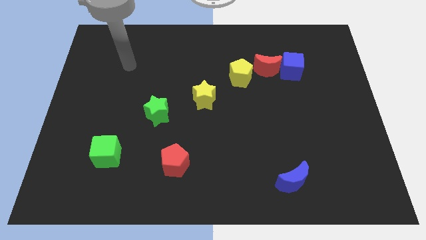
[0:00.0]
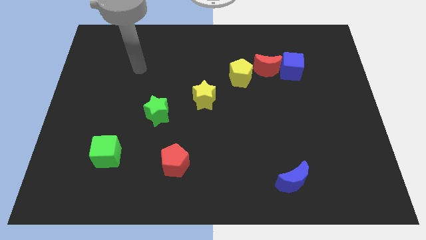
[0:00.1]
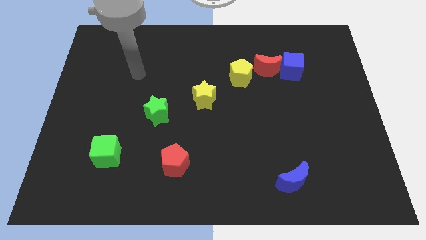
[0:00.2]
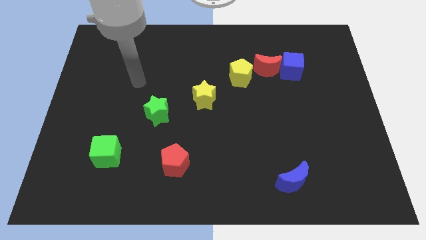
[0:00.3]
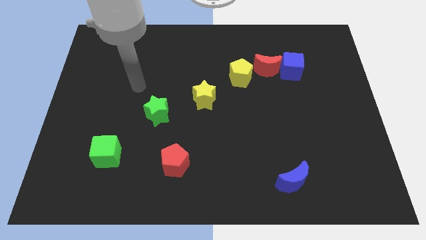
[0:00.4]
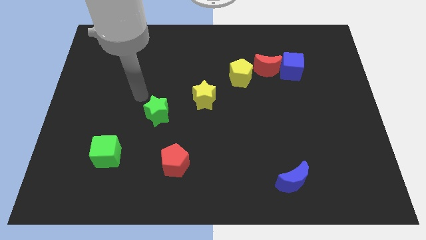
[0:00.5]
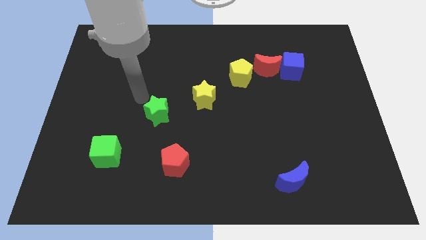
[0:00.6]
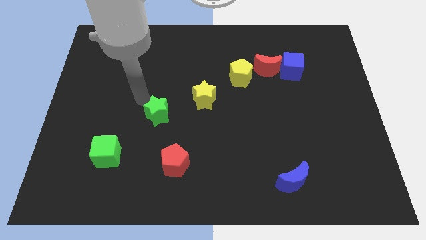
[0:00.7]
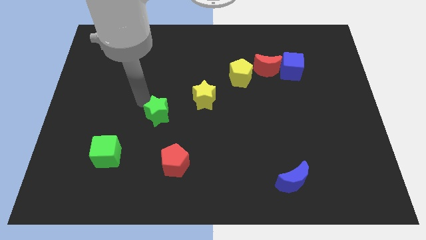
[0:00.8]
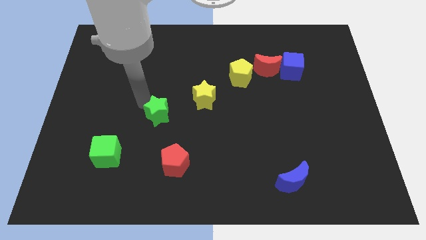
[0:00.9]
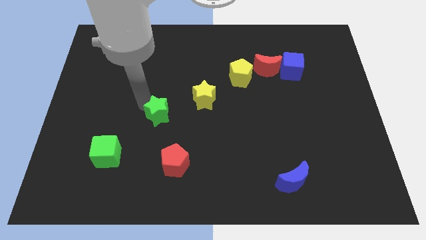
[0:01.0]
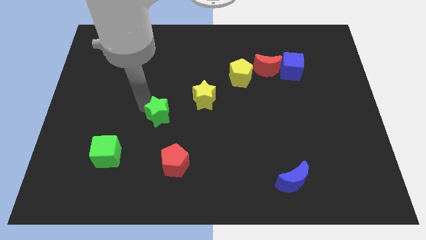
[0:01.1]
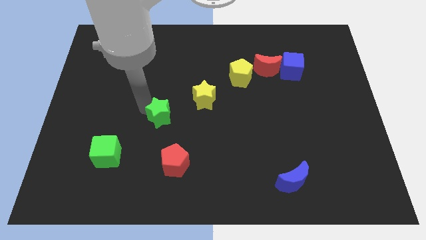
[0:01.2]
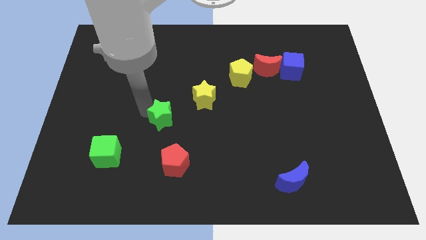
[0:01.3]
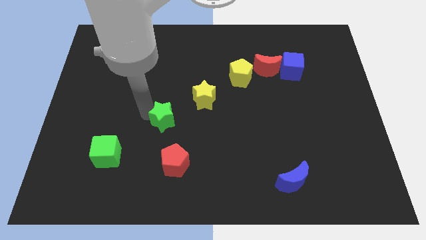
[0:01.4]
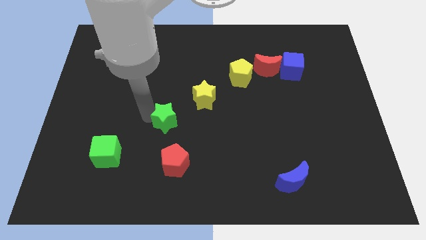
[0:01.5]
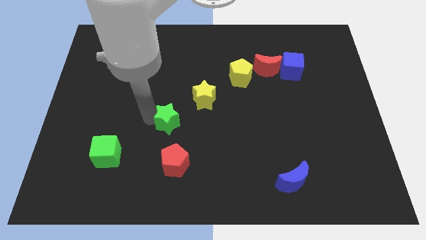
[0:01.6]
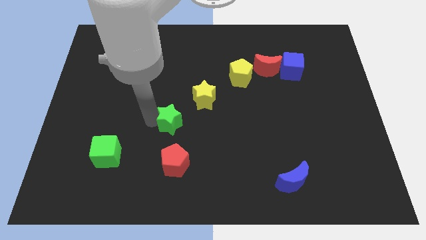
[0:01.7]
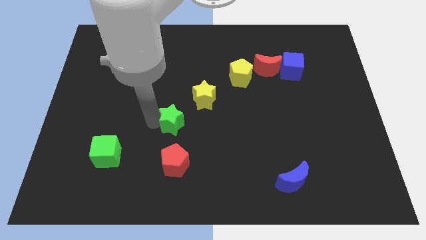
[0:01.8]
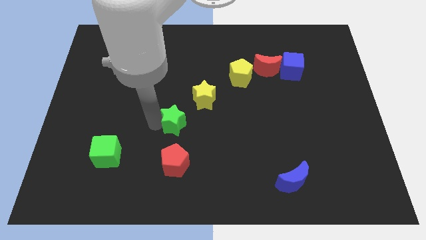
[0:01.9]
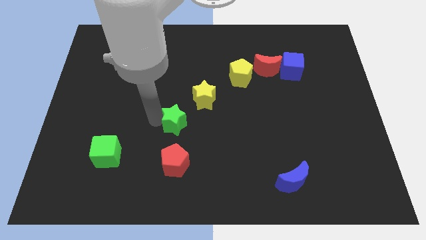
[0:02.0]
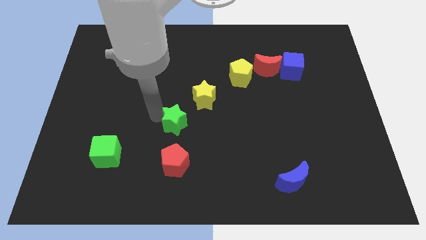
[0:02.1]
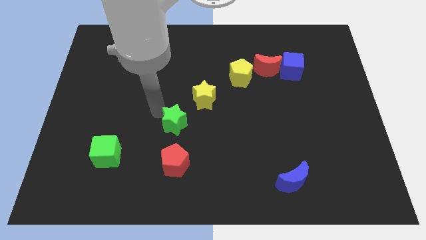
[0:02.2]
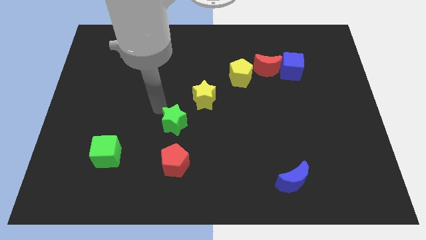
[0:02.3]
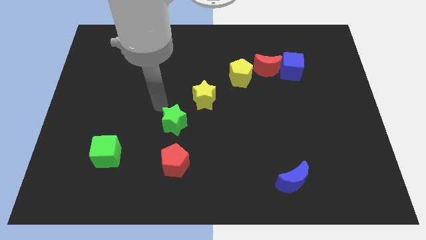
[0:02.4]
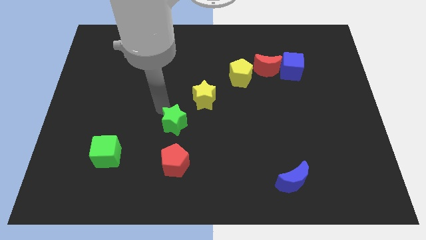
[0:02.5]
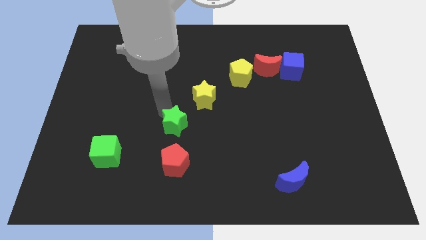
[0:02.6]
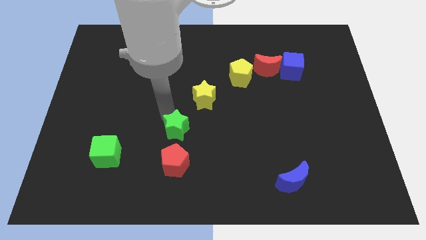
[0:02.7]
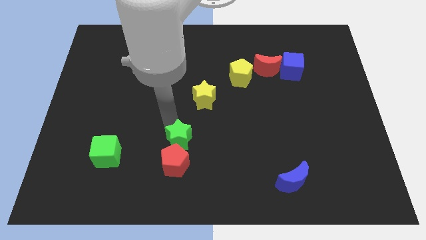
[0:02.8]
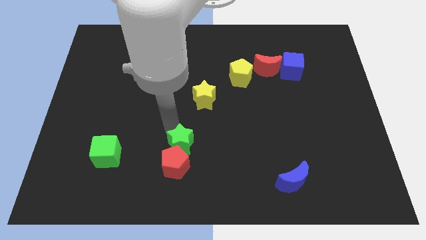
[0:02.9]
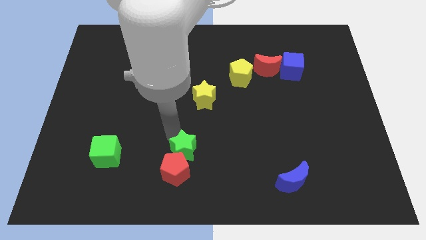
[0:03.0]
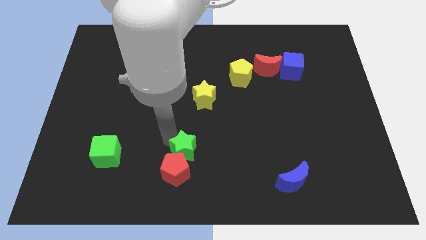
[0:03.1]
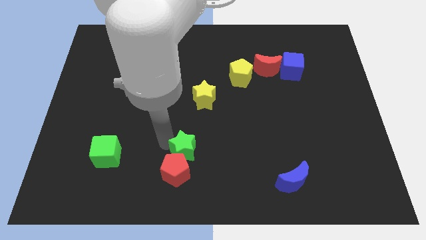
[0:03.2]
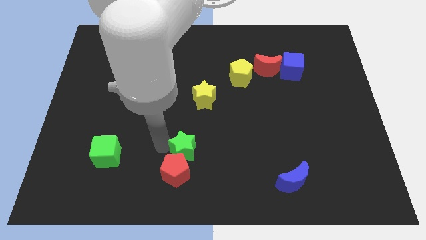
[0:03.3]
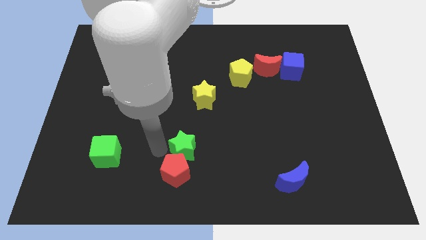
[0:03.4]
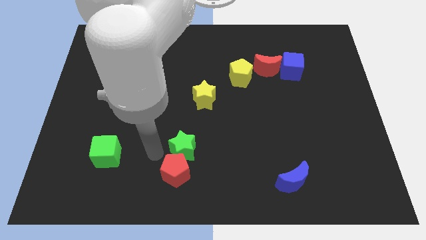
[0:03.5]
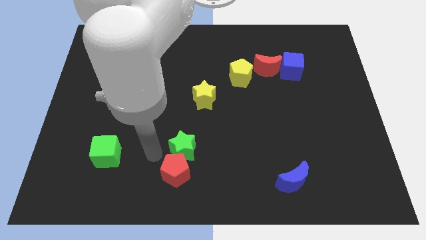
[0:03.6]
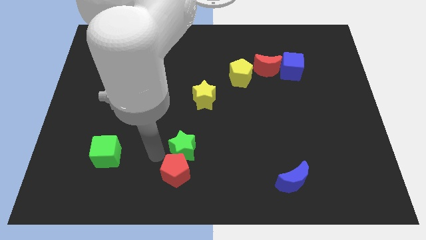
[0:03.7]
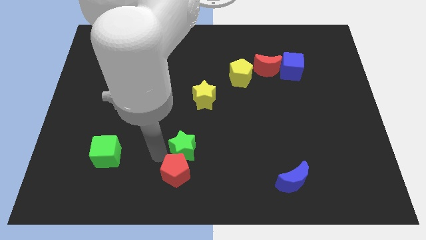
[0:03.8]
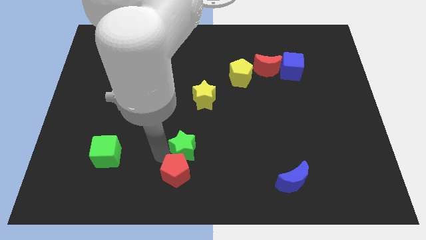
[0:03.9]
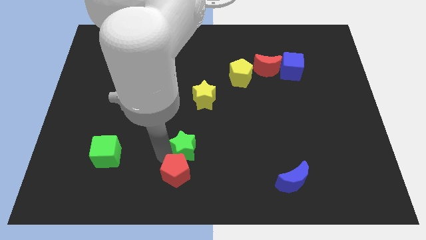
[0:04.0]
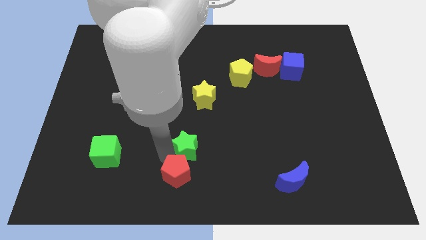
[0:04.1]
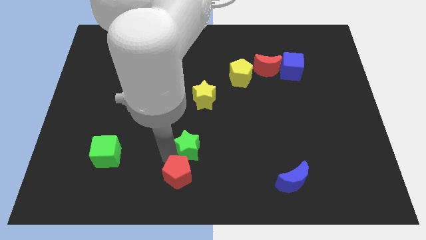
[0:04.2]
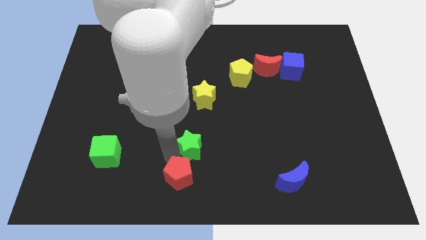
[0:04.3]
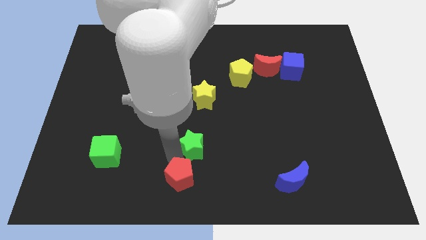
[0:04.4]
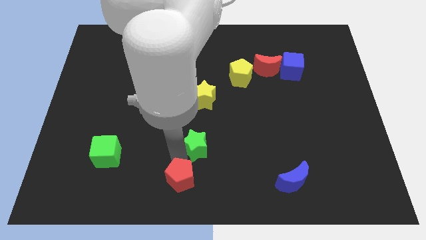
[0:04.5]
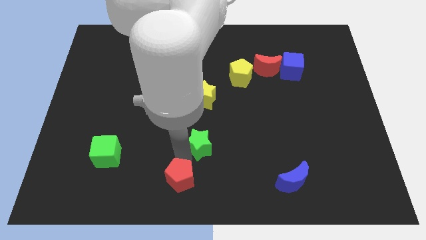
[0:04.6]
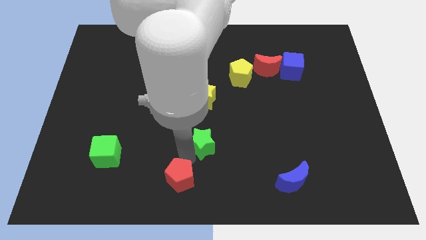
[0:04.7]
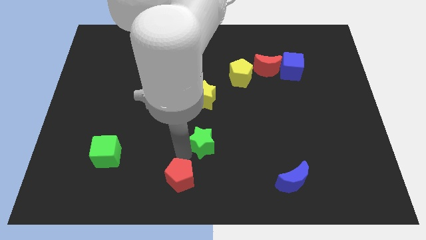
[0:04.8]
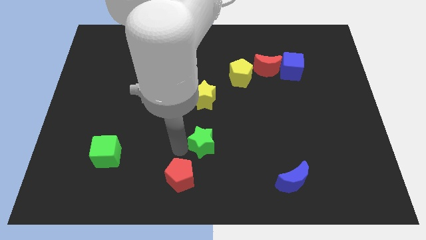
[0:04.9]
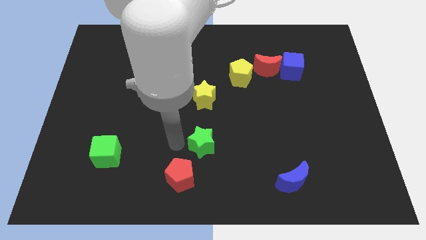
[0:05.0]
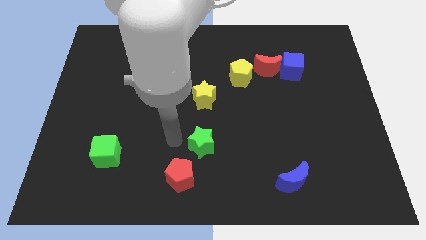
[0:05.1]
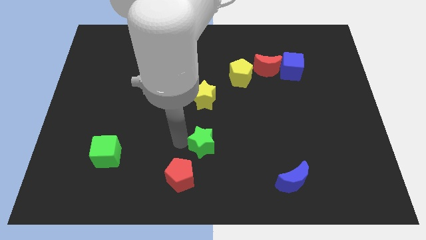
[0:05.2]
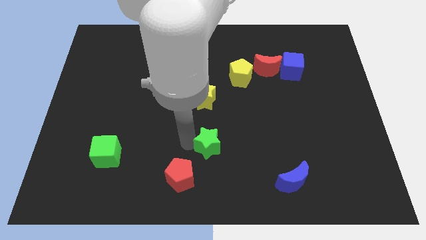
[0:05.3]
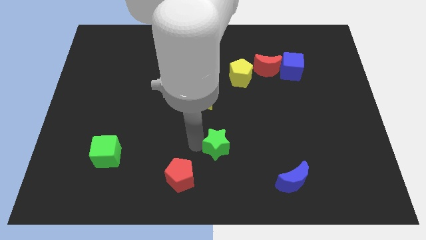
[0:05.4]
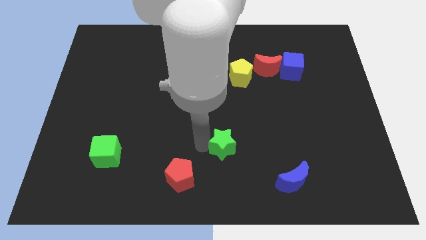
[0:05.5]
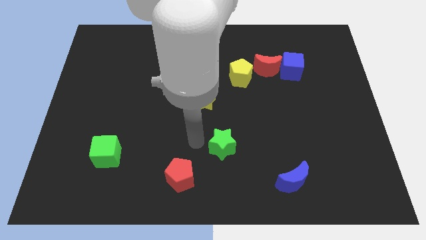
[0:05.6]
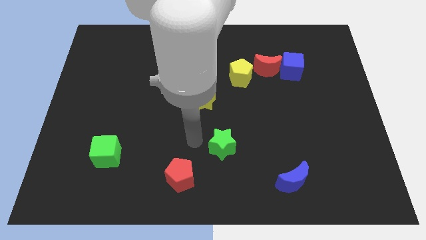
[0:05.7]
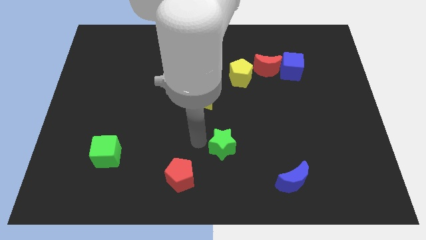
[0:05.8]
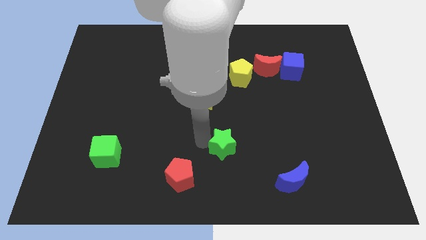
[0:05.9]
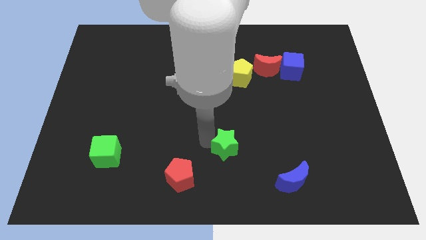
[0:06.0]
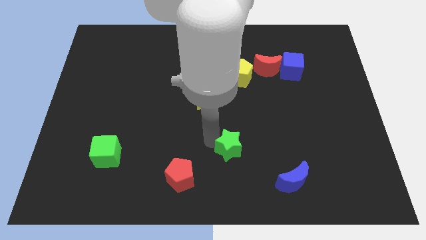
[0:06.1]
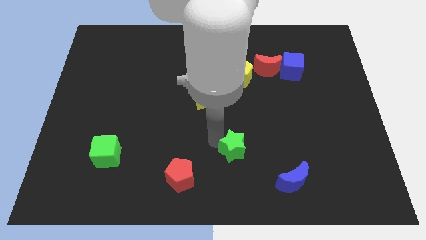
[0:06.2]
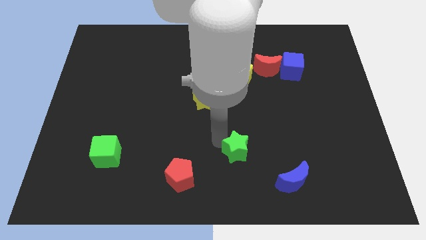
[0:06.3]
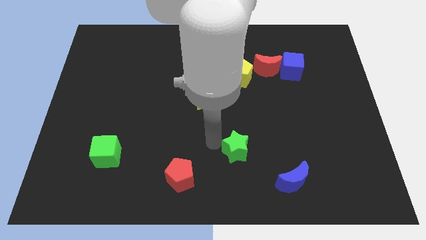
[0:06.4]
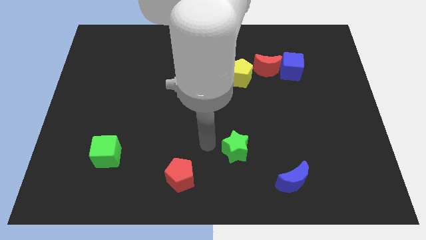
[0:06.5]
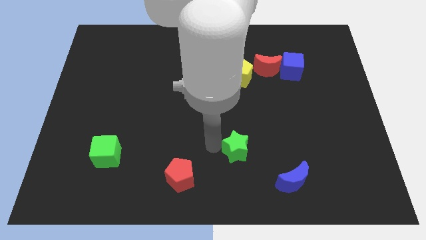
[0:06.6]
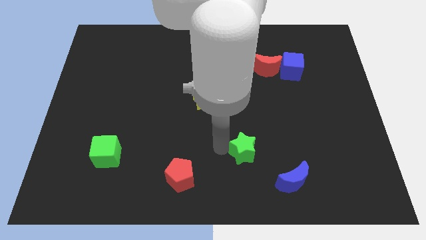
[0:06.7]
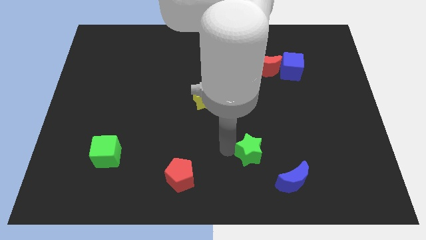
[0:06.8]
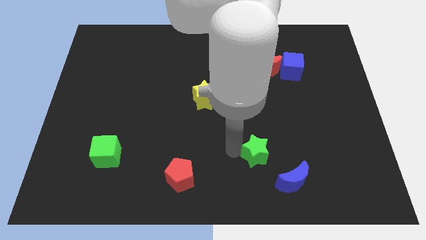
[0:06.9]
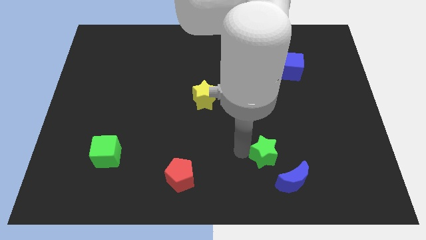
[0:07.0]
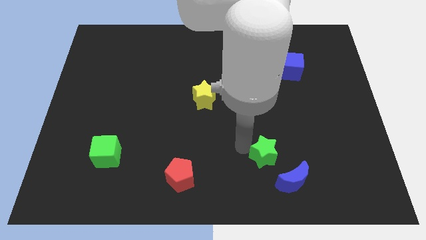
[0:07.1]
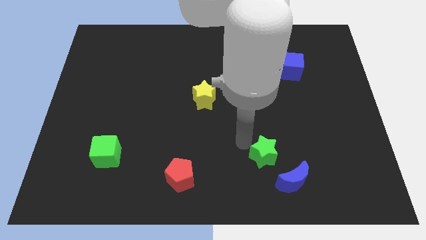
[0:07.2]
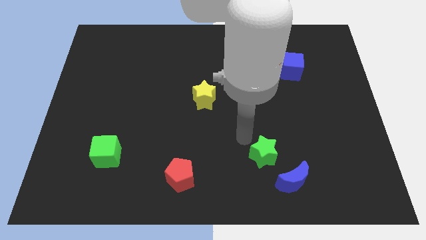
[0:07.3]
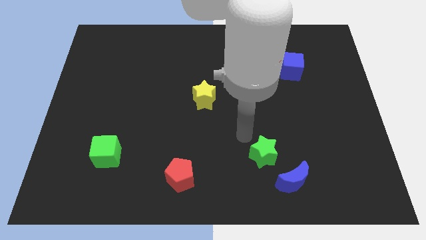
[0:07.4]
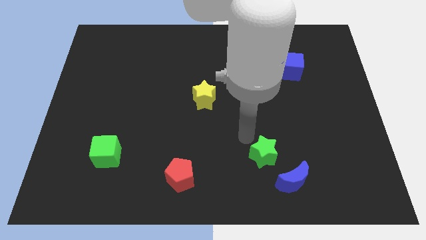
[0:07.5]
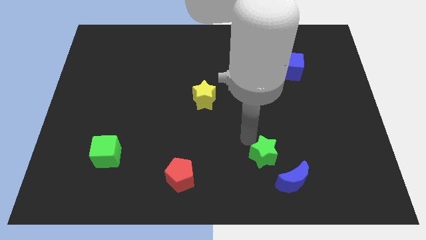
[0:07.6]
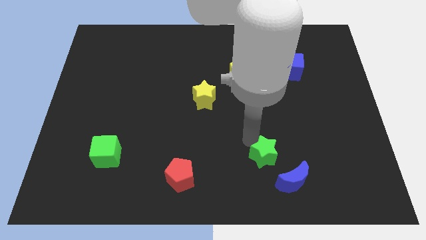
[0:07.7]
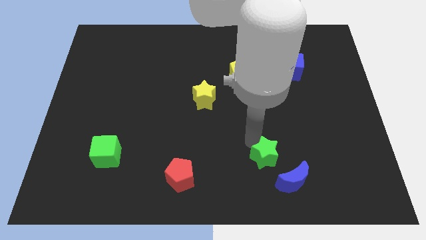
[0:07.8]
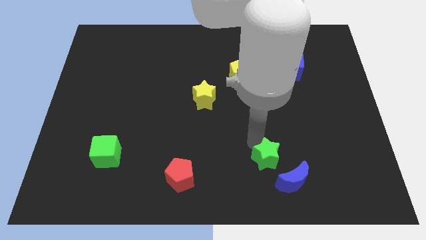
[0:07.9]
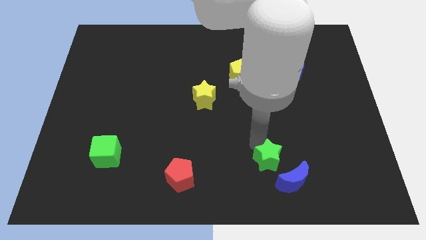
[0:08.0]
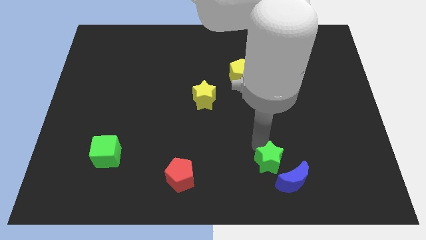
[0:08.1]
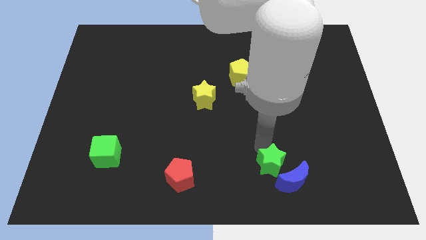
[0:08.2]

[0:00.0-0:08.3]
slide the green star next to the blue moon
